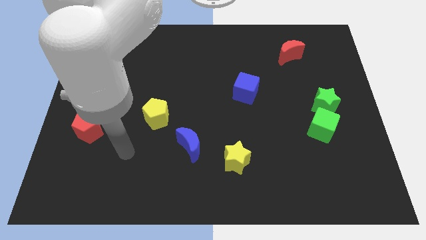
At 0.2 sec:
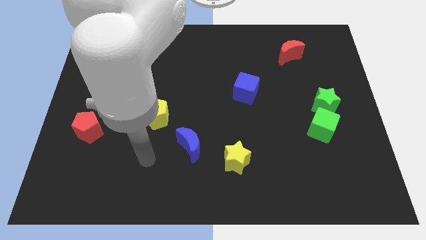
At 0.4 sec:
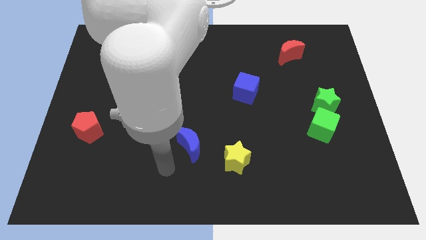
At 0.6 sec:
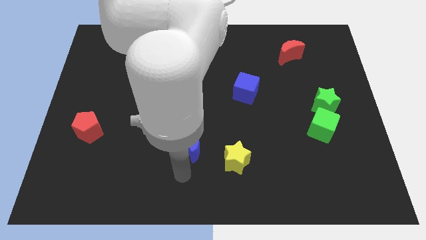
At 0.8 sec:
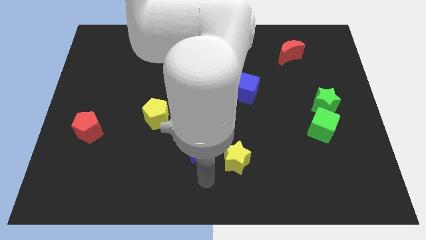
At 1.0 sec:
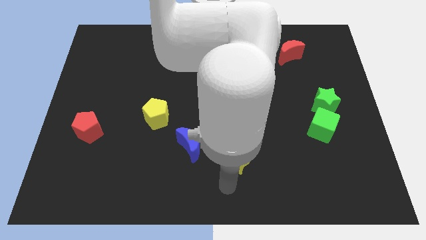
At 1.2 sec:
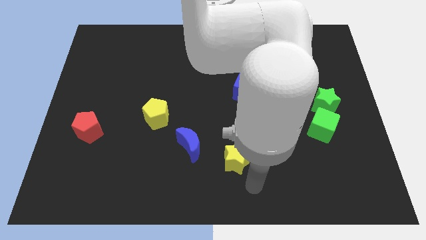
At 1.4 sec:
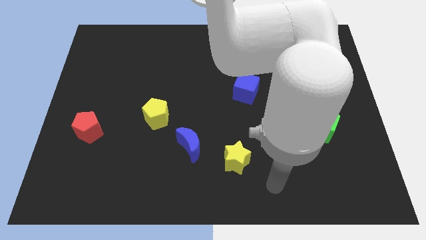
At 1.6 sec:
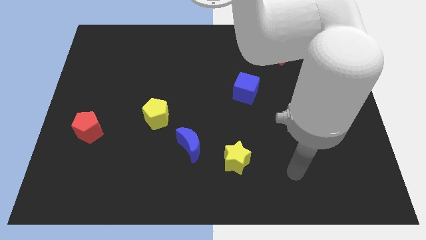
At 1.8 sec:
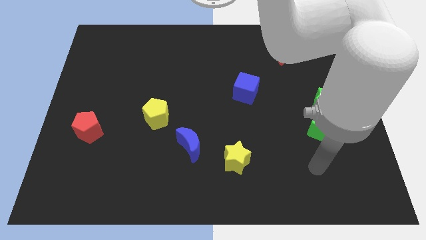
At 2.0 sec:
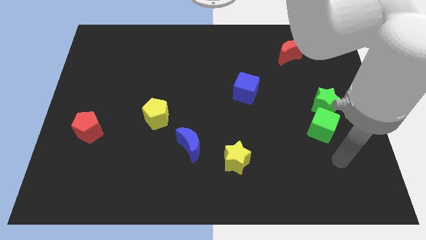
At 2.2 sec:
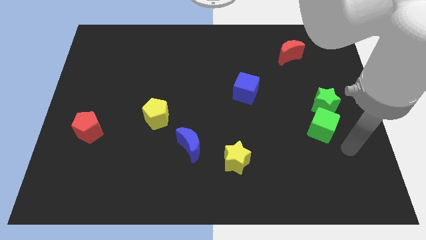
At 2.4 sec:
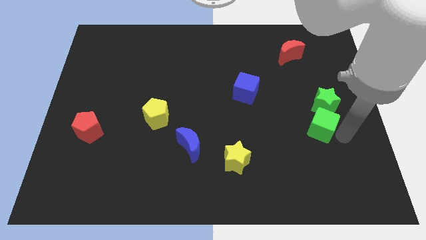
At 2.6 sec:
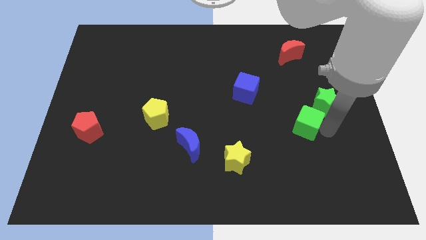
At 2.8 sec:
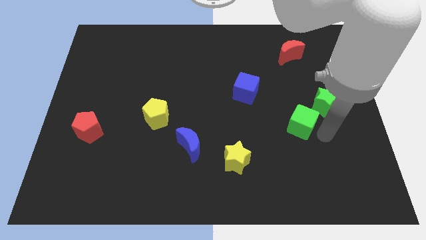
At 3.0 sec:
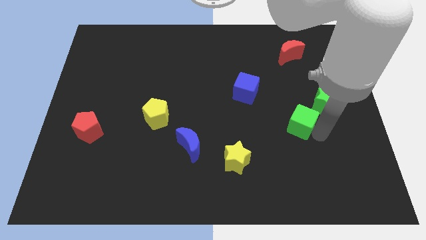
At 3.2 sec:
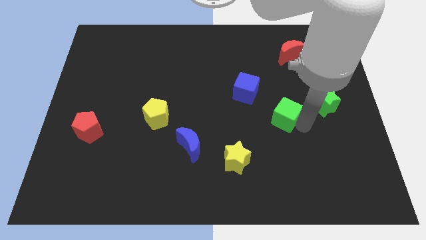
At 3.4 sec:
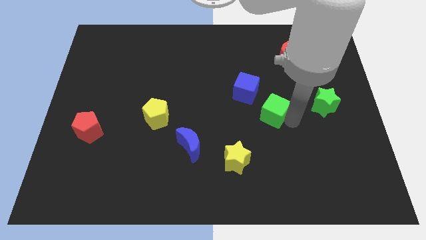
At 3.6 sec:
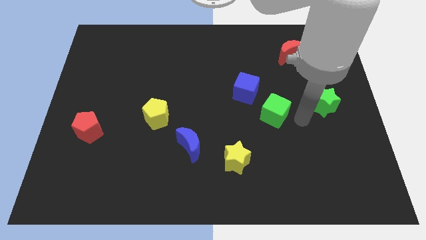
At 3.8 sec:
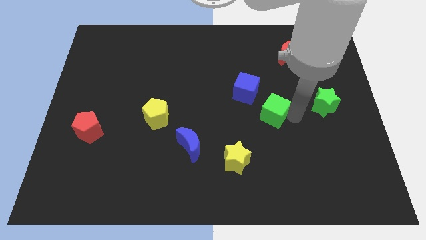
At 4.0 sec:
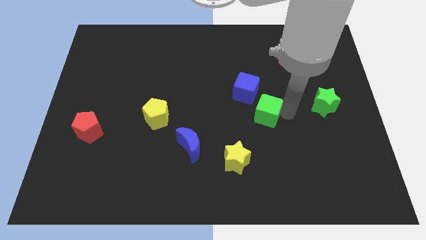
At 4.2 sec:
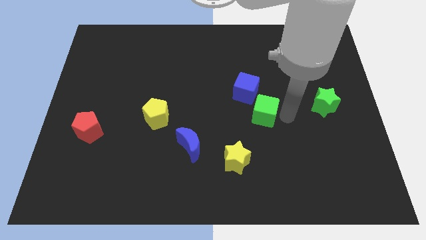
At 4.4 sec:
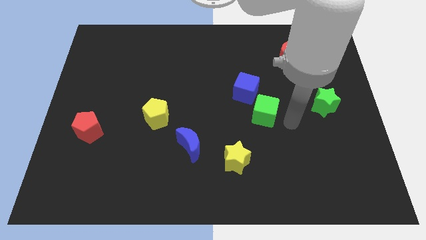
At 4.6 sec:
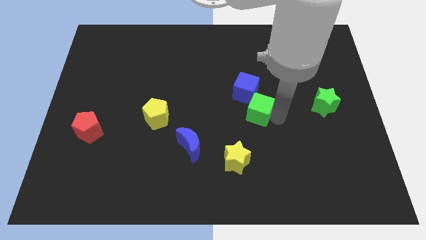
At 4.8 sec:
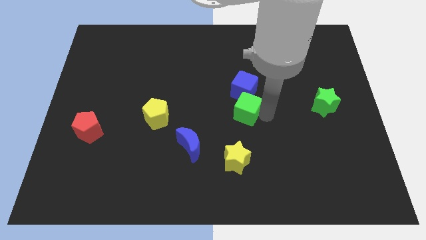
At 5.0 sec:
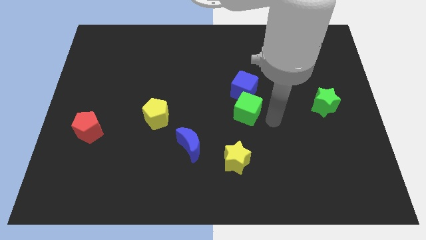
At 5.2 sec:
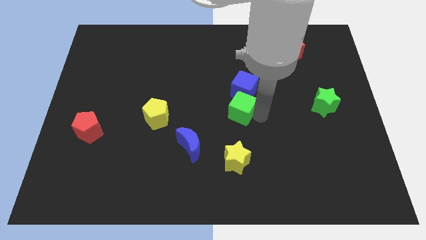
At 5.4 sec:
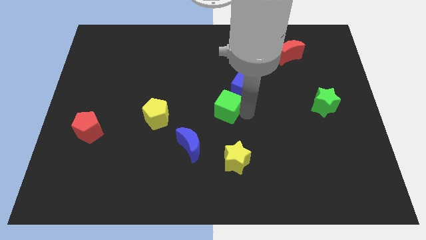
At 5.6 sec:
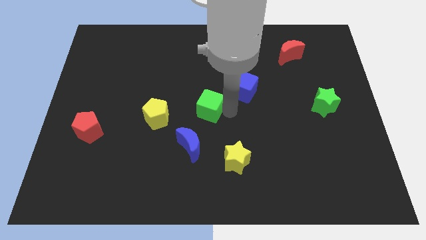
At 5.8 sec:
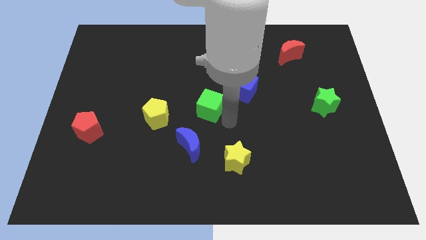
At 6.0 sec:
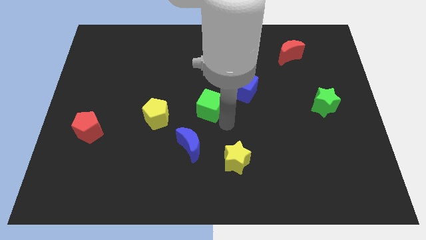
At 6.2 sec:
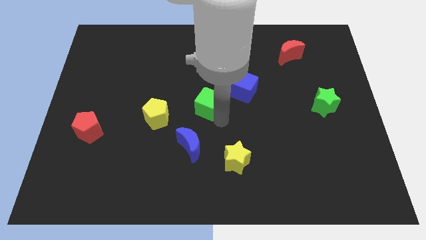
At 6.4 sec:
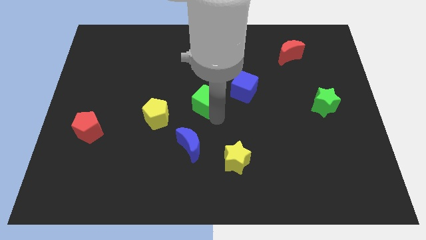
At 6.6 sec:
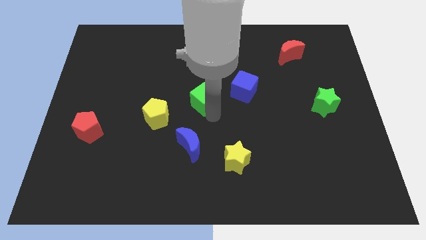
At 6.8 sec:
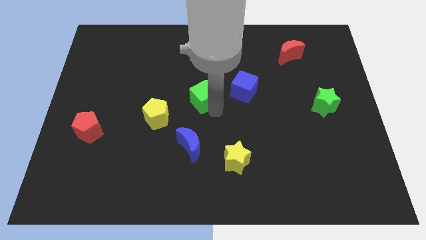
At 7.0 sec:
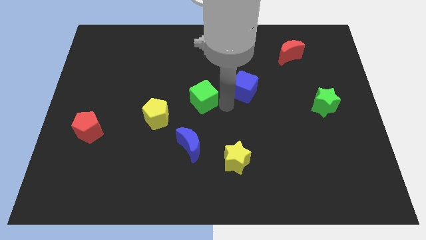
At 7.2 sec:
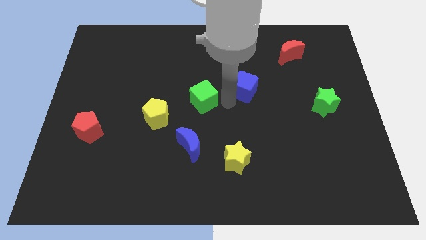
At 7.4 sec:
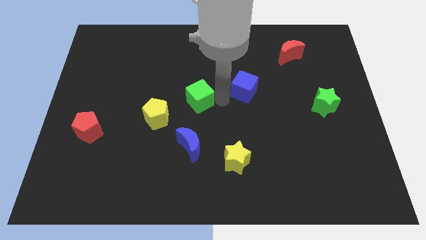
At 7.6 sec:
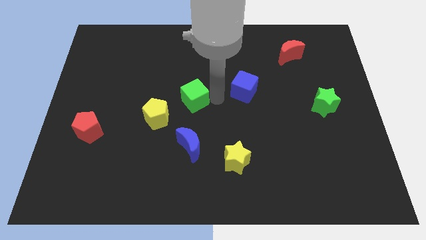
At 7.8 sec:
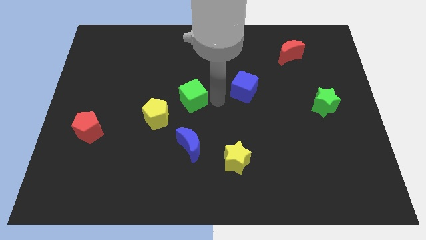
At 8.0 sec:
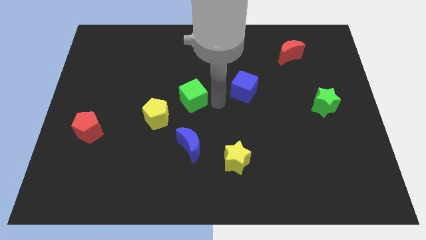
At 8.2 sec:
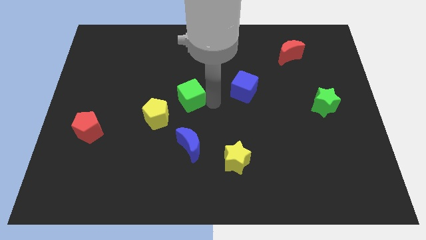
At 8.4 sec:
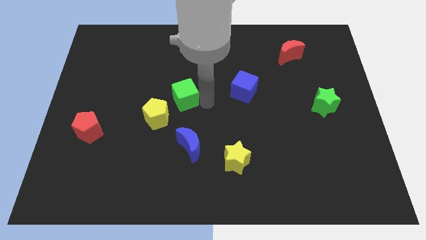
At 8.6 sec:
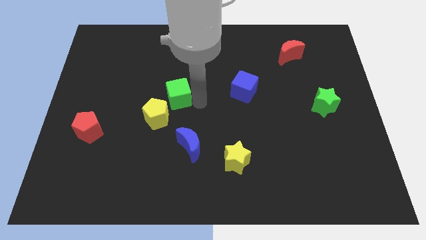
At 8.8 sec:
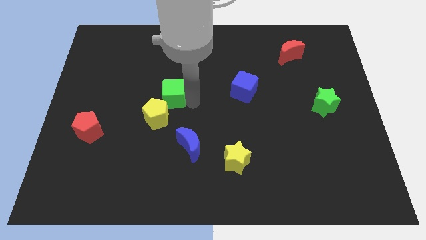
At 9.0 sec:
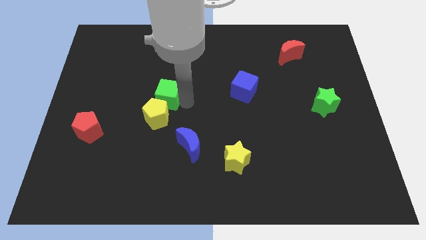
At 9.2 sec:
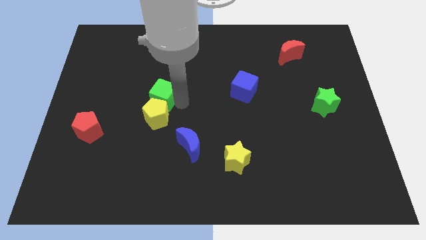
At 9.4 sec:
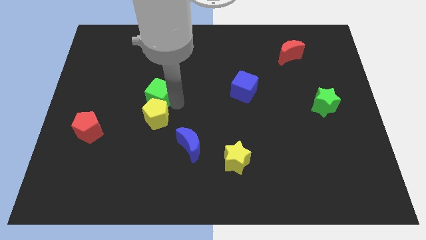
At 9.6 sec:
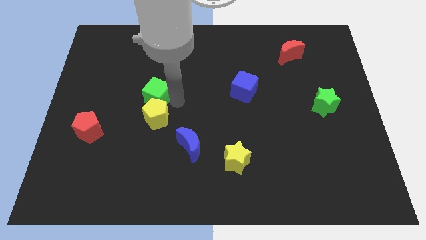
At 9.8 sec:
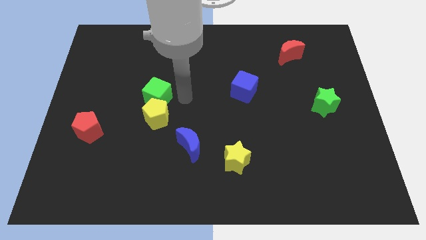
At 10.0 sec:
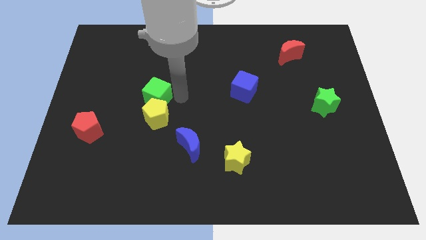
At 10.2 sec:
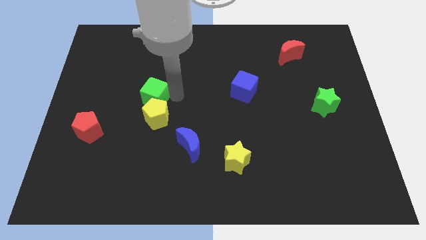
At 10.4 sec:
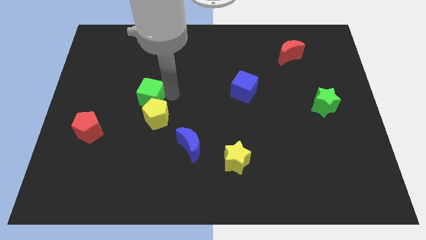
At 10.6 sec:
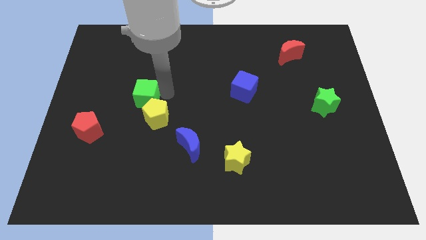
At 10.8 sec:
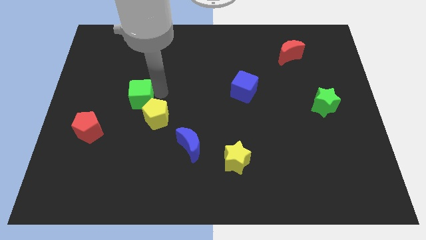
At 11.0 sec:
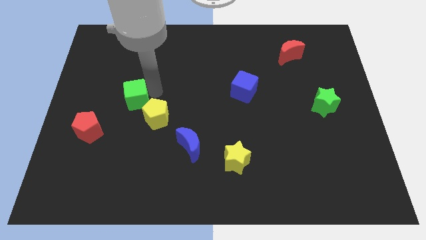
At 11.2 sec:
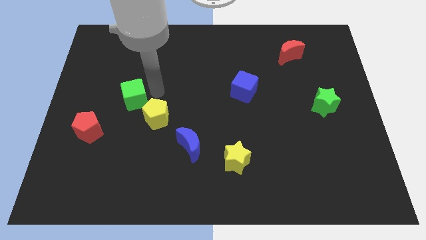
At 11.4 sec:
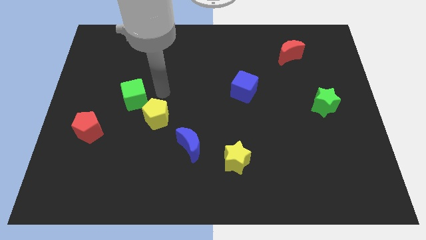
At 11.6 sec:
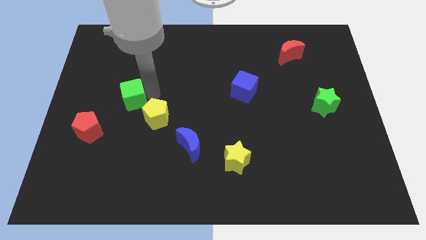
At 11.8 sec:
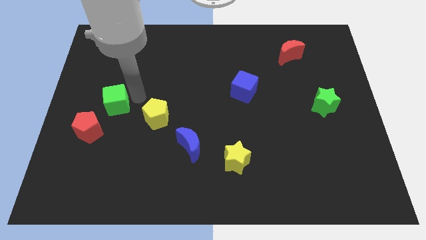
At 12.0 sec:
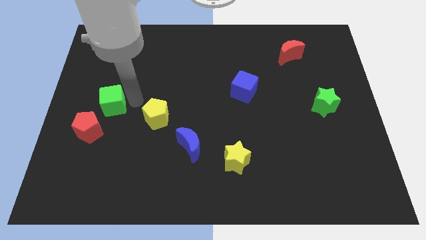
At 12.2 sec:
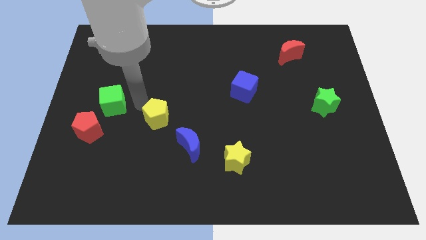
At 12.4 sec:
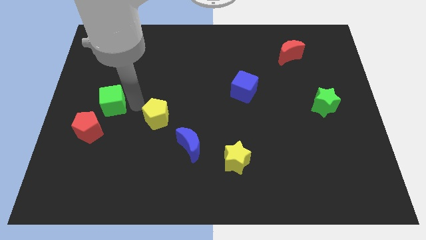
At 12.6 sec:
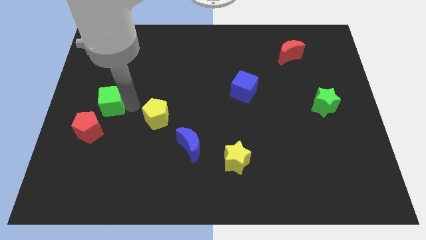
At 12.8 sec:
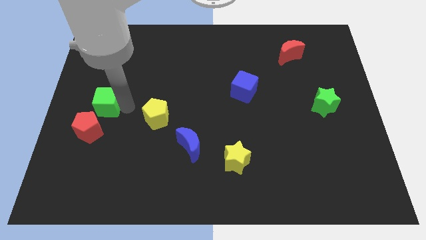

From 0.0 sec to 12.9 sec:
slide the green cube to the left side of the board
